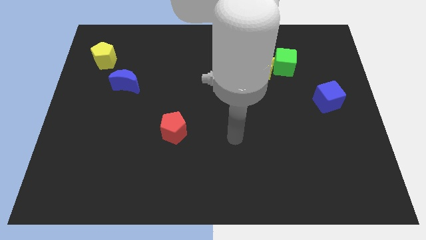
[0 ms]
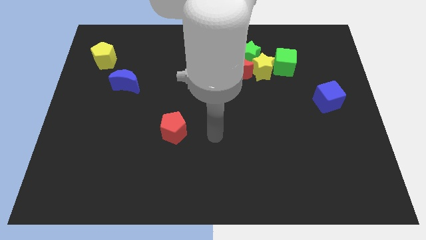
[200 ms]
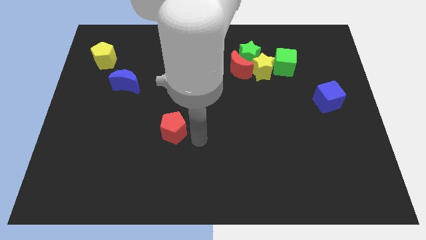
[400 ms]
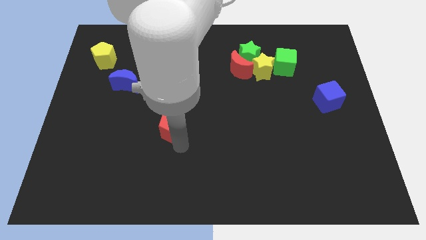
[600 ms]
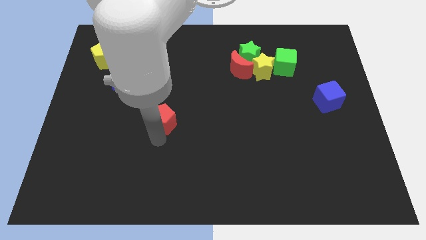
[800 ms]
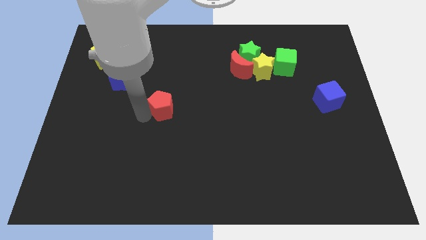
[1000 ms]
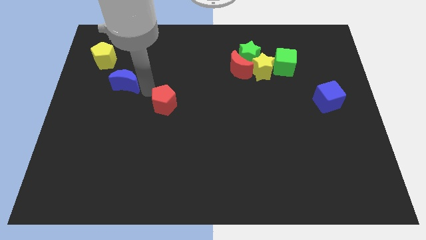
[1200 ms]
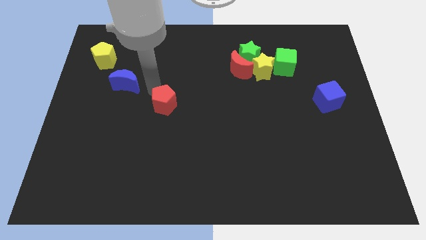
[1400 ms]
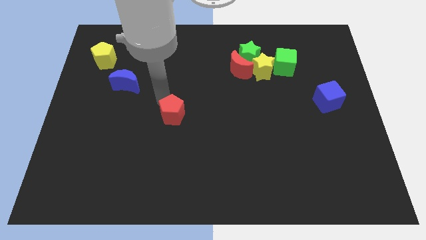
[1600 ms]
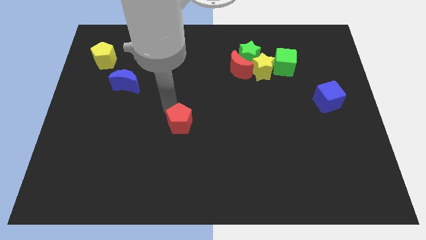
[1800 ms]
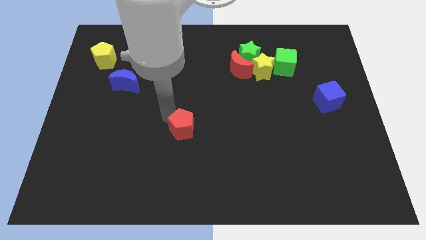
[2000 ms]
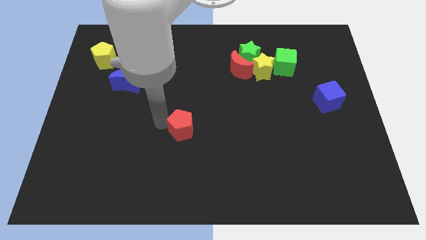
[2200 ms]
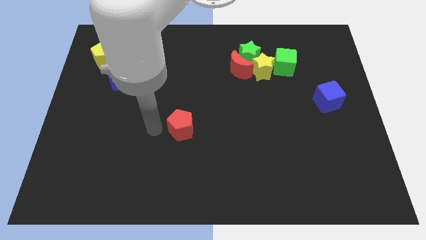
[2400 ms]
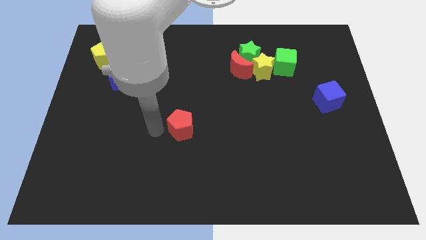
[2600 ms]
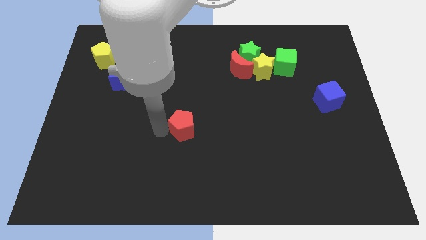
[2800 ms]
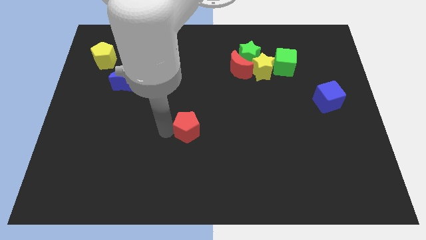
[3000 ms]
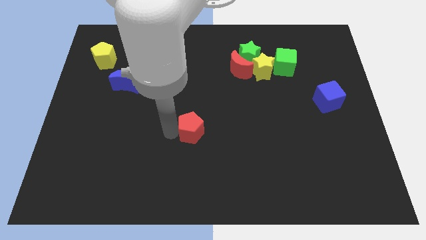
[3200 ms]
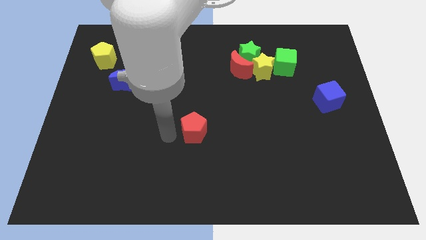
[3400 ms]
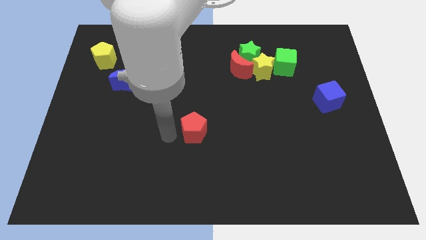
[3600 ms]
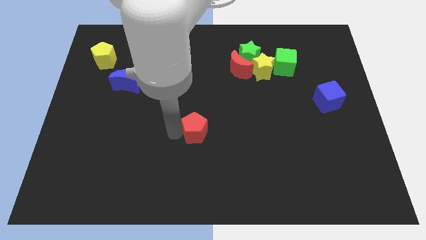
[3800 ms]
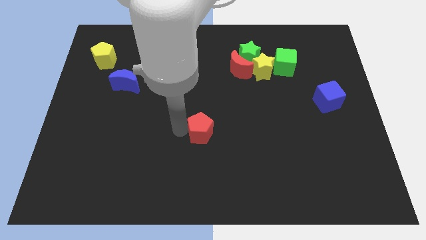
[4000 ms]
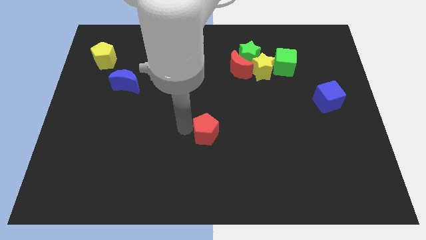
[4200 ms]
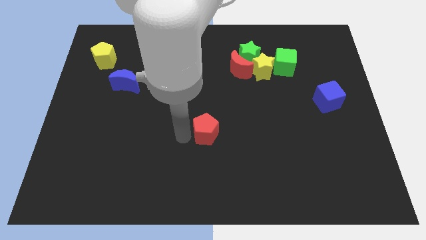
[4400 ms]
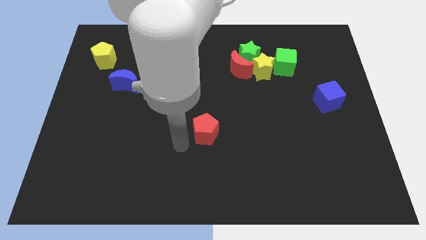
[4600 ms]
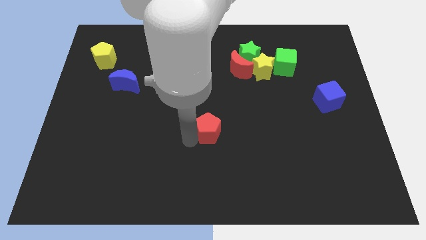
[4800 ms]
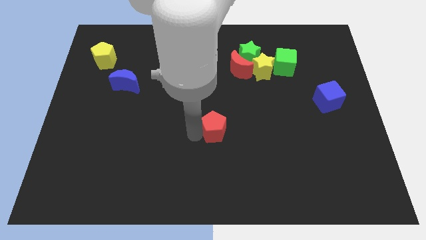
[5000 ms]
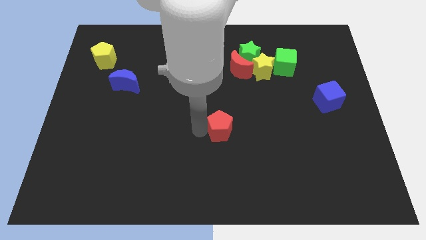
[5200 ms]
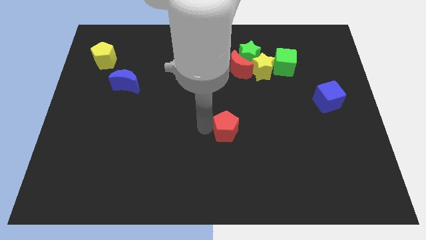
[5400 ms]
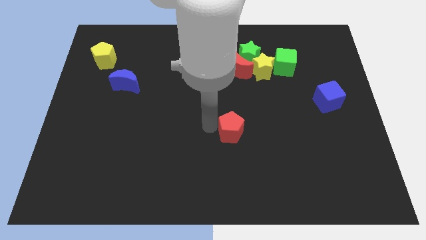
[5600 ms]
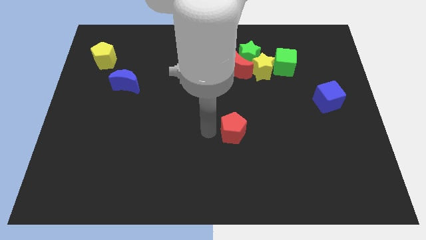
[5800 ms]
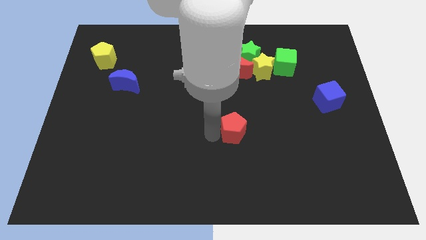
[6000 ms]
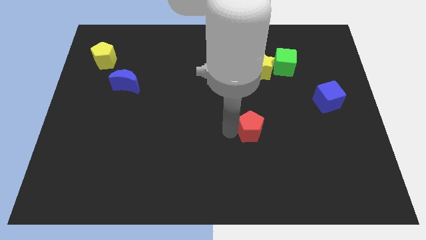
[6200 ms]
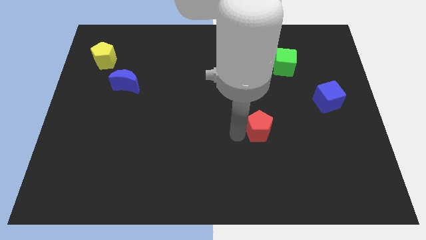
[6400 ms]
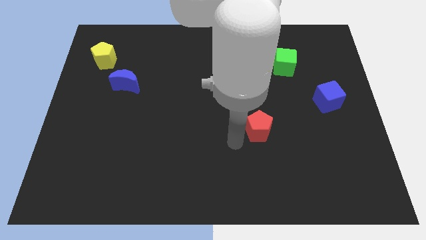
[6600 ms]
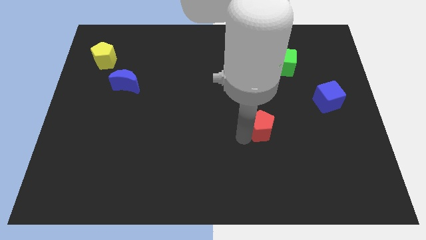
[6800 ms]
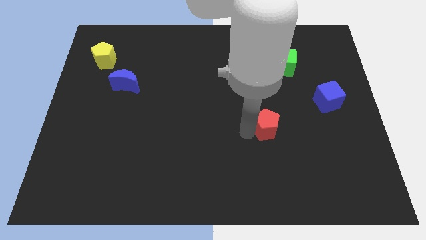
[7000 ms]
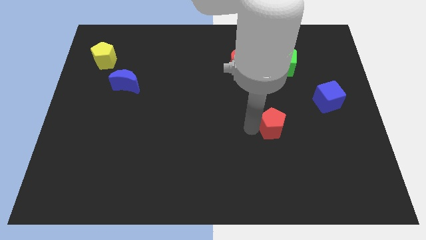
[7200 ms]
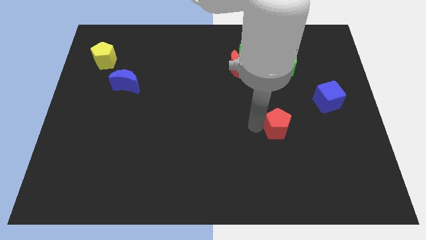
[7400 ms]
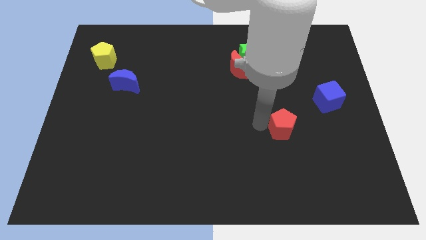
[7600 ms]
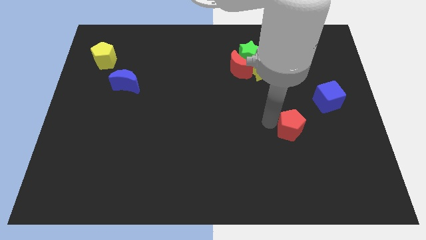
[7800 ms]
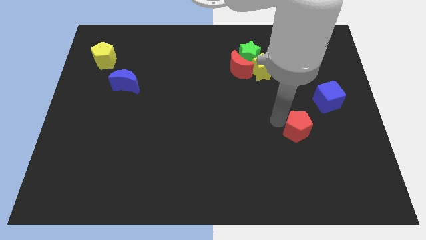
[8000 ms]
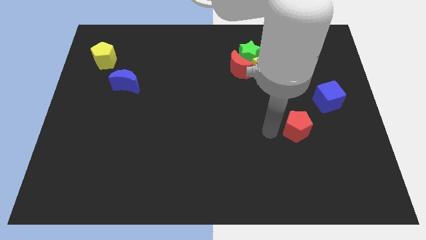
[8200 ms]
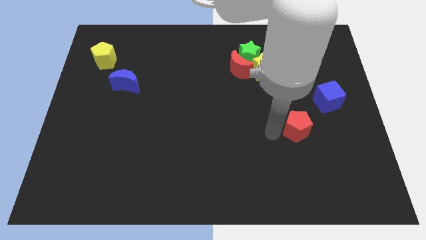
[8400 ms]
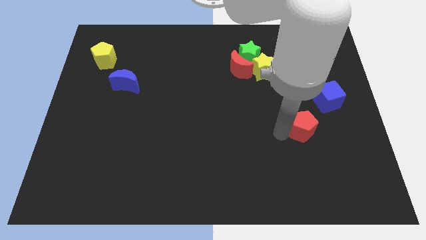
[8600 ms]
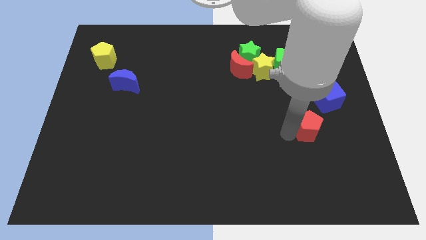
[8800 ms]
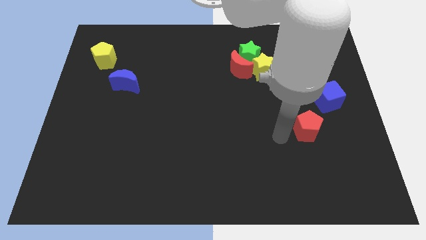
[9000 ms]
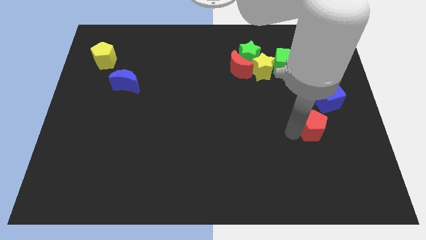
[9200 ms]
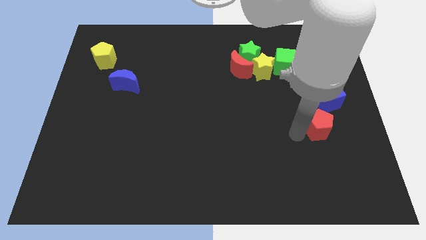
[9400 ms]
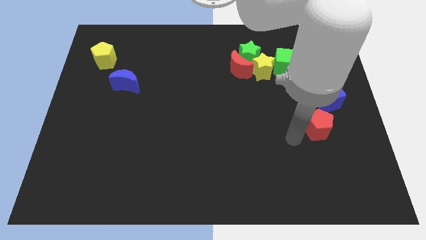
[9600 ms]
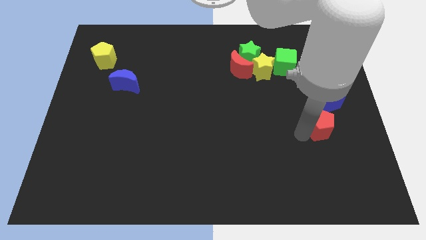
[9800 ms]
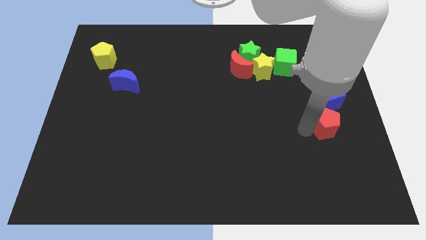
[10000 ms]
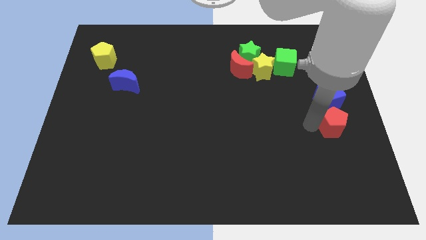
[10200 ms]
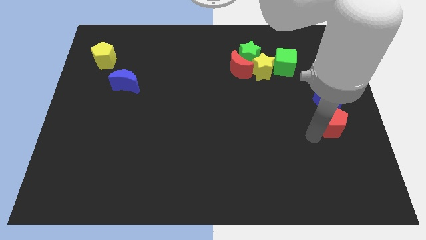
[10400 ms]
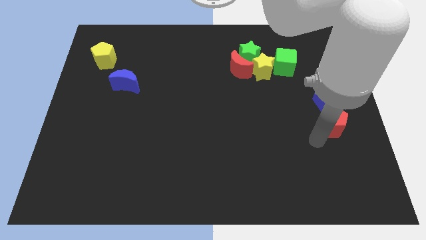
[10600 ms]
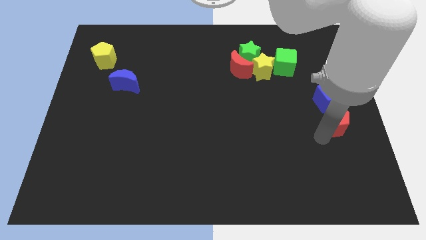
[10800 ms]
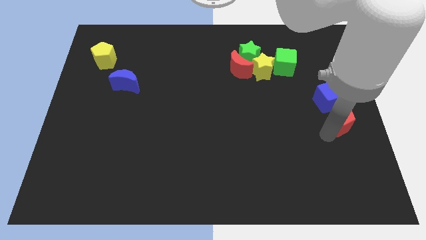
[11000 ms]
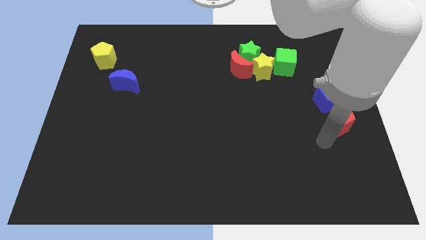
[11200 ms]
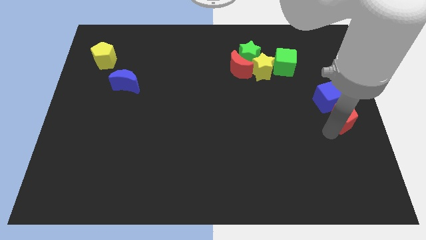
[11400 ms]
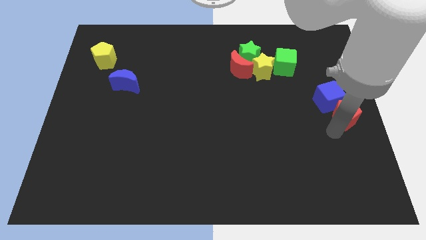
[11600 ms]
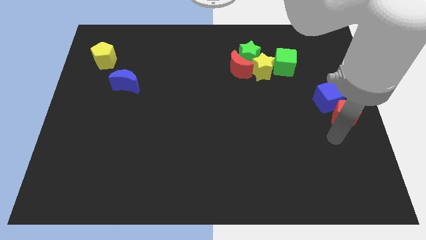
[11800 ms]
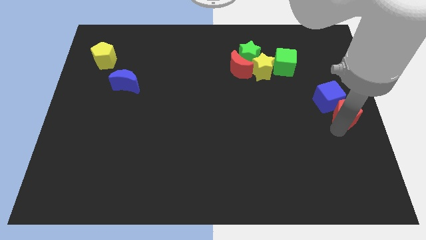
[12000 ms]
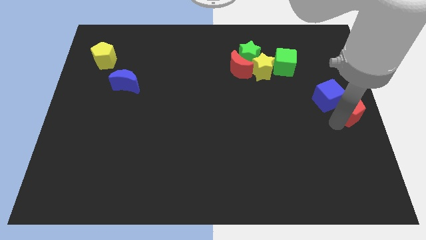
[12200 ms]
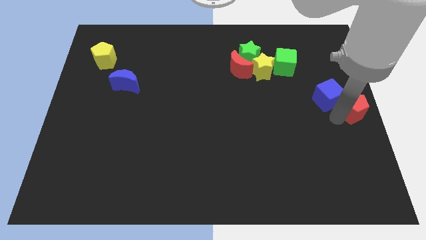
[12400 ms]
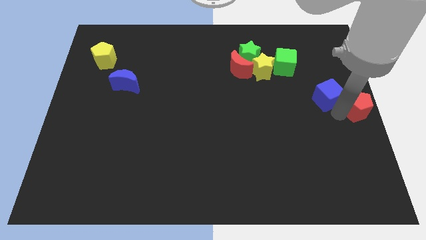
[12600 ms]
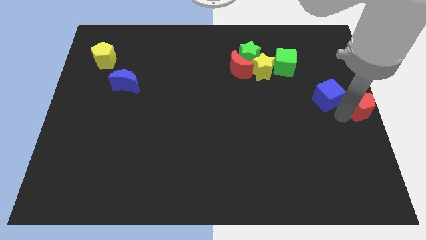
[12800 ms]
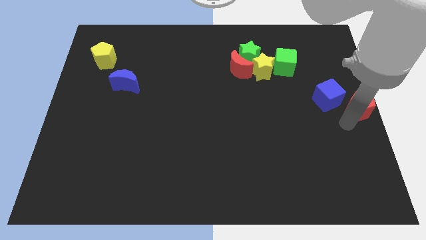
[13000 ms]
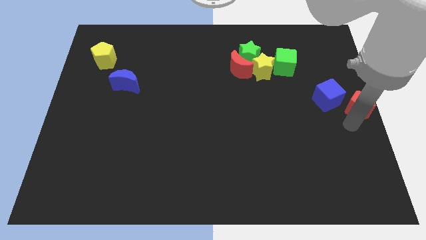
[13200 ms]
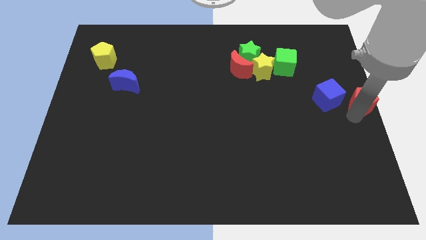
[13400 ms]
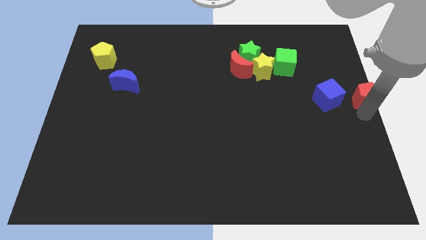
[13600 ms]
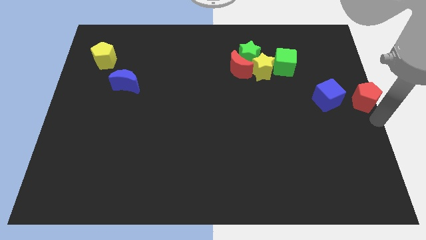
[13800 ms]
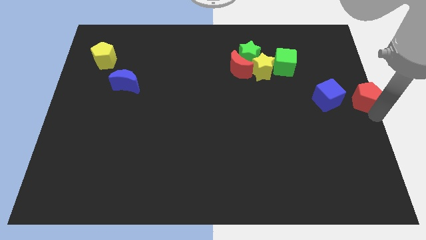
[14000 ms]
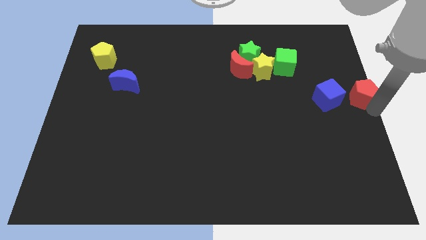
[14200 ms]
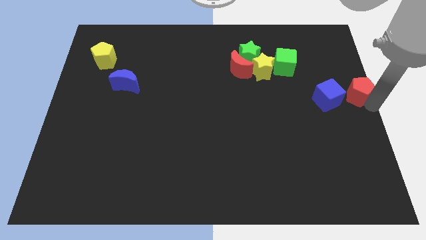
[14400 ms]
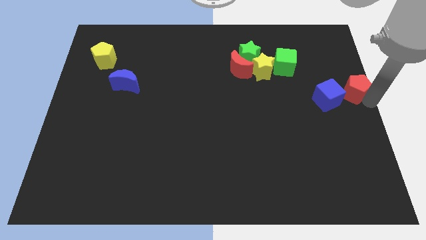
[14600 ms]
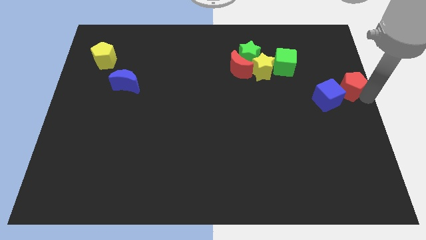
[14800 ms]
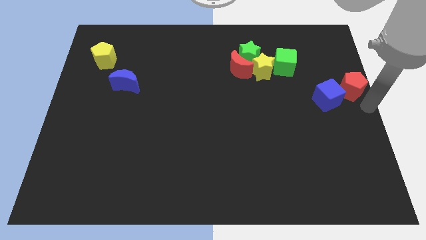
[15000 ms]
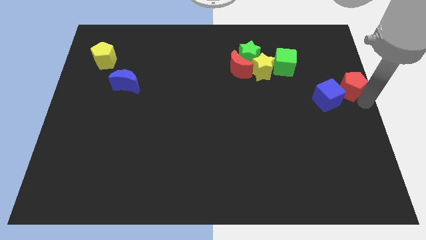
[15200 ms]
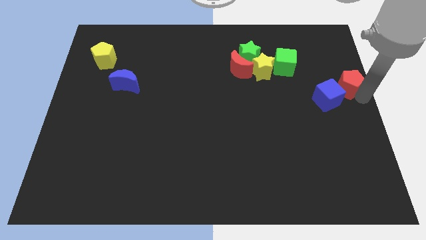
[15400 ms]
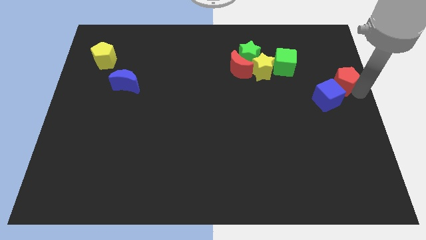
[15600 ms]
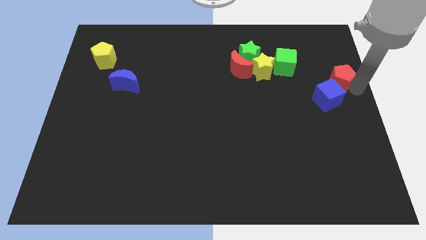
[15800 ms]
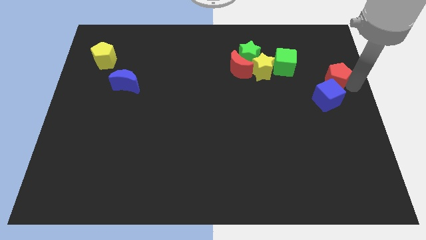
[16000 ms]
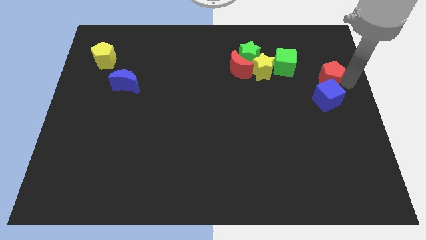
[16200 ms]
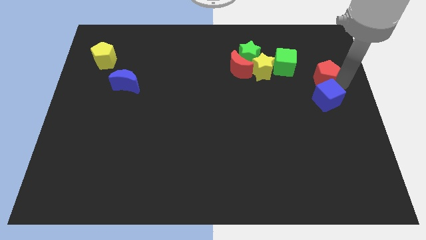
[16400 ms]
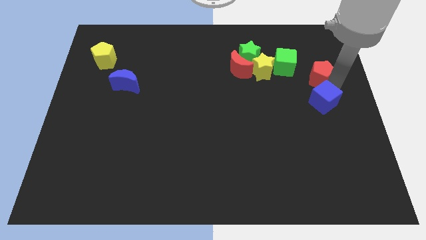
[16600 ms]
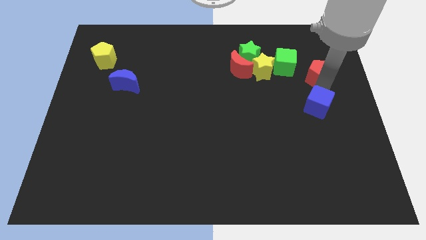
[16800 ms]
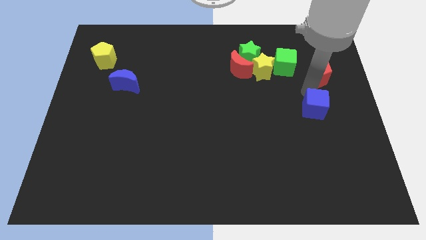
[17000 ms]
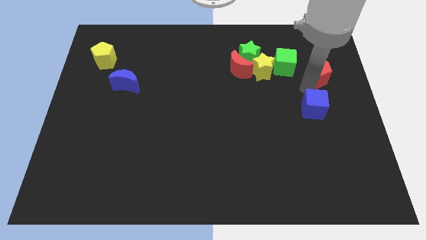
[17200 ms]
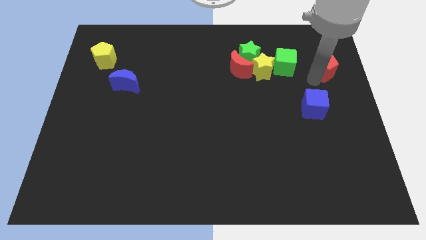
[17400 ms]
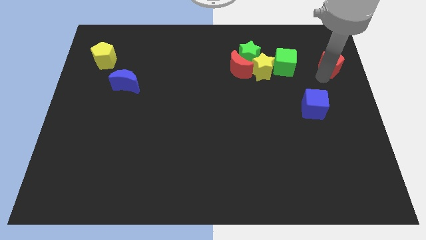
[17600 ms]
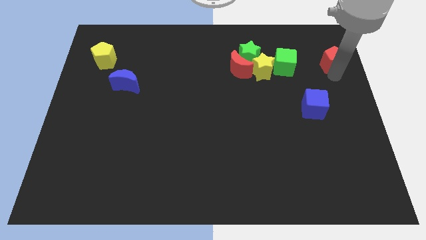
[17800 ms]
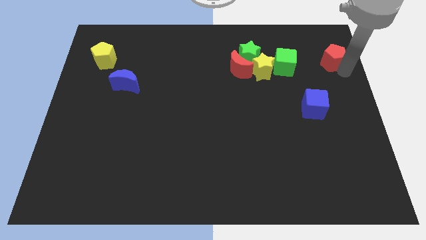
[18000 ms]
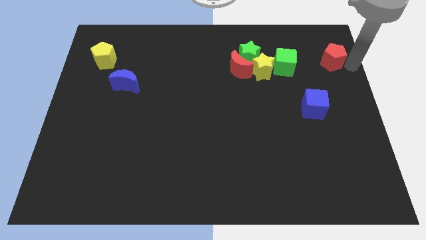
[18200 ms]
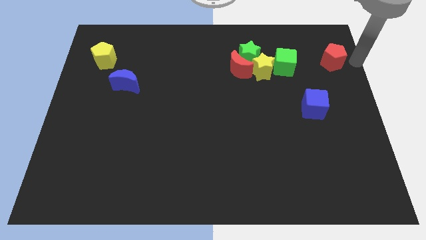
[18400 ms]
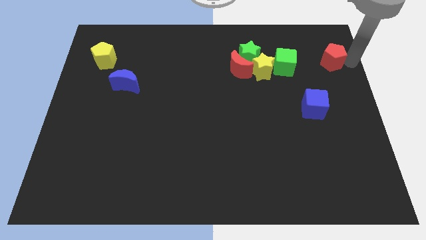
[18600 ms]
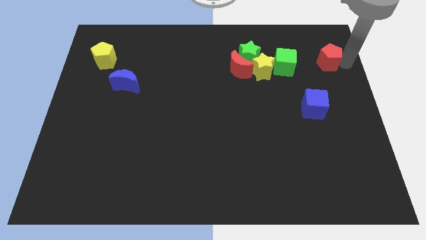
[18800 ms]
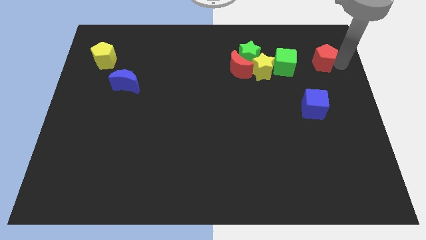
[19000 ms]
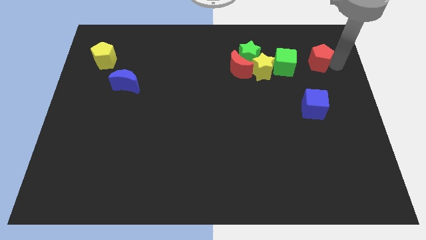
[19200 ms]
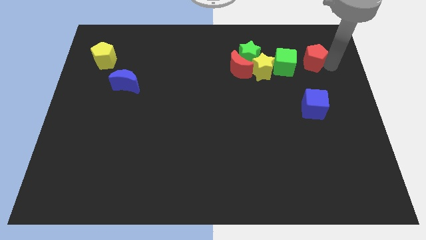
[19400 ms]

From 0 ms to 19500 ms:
slide the red pentagon diagonally upwards and right
